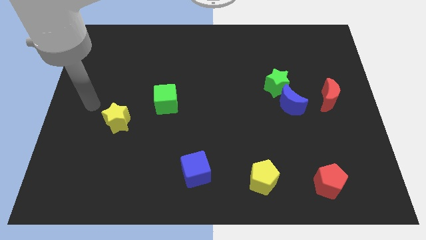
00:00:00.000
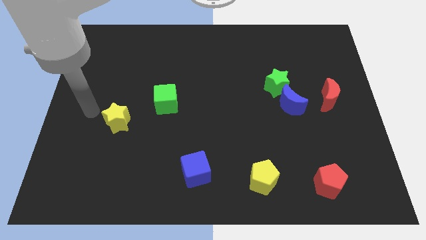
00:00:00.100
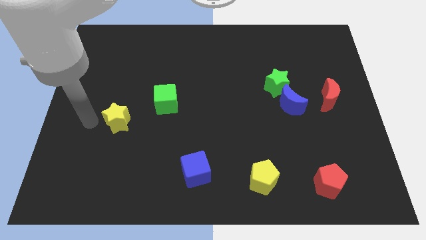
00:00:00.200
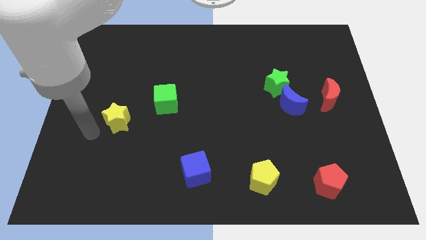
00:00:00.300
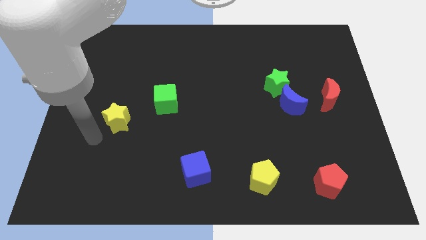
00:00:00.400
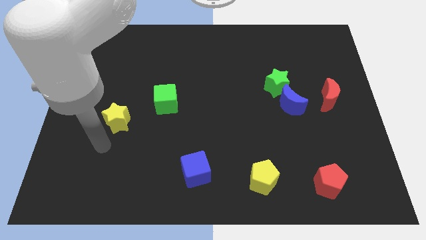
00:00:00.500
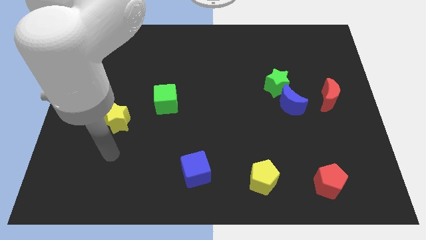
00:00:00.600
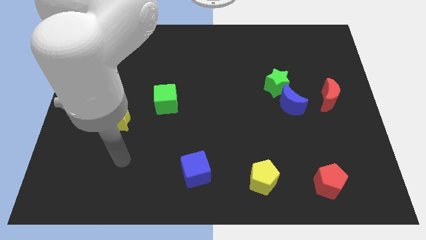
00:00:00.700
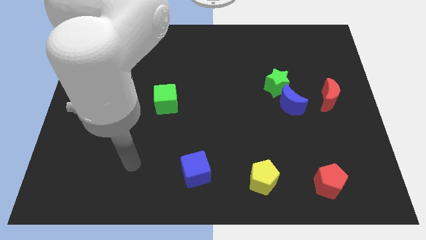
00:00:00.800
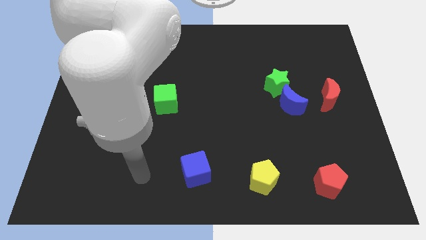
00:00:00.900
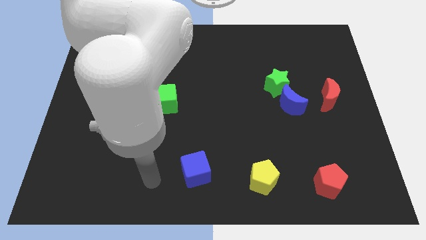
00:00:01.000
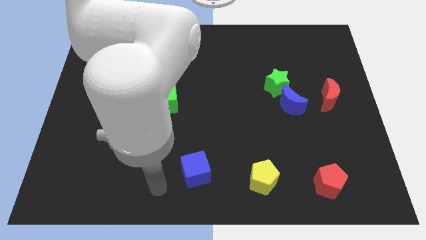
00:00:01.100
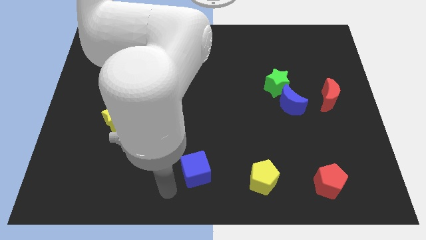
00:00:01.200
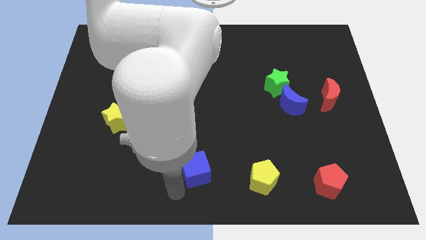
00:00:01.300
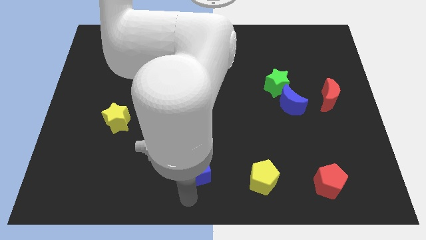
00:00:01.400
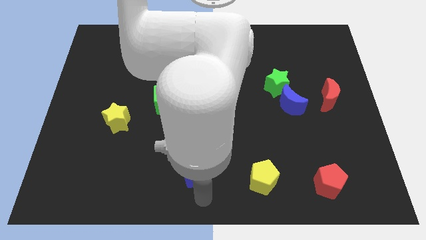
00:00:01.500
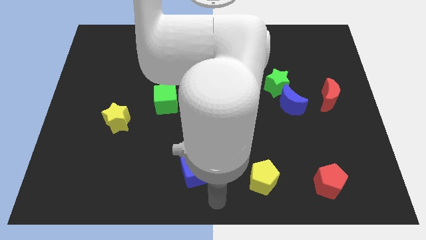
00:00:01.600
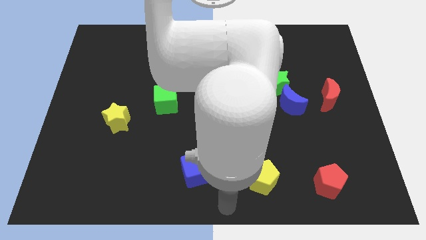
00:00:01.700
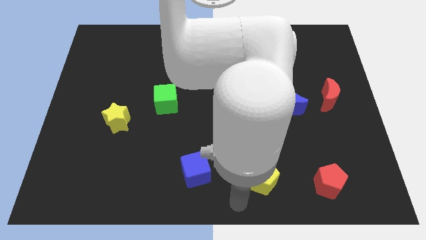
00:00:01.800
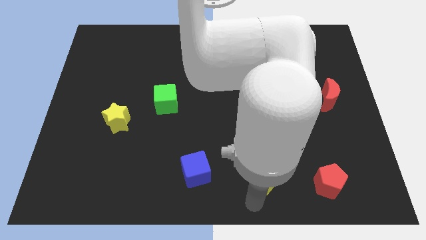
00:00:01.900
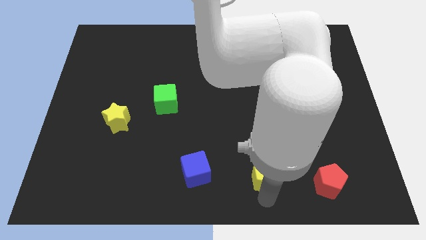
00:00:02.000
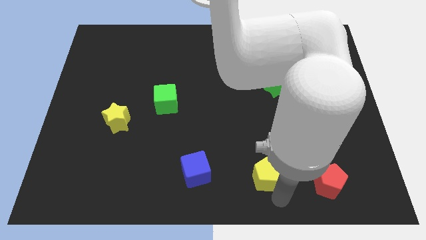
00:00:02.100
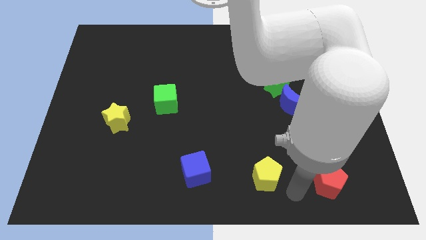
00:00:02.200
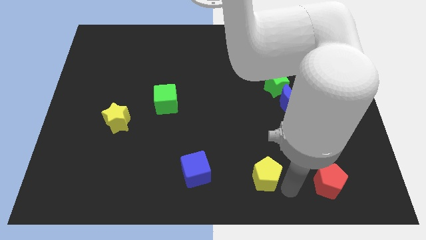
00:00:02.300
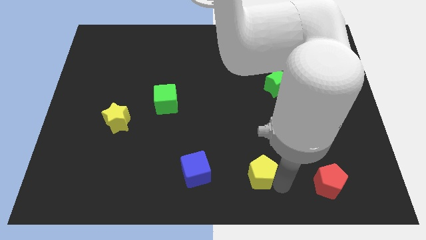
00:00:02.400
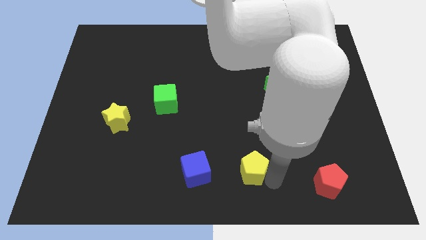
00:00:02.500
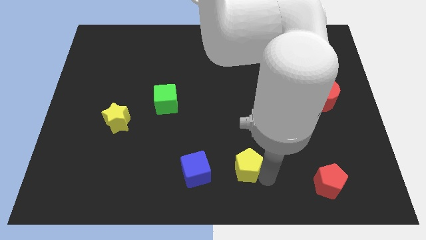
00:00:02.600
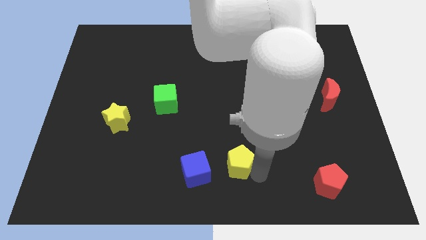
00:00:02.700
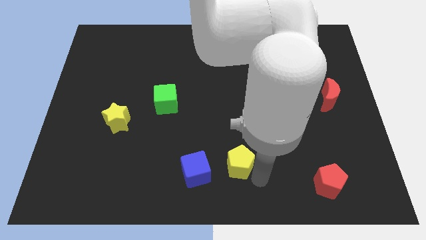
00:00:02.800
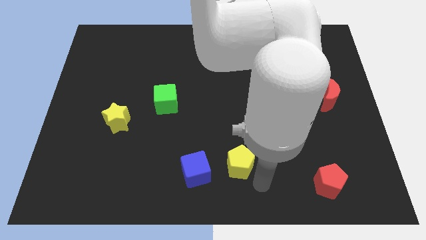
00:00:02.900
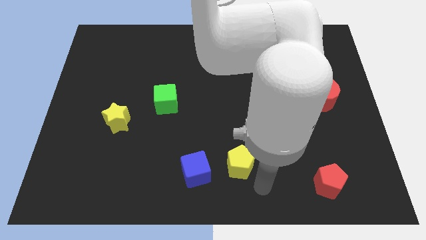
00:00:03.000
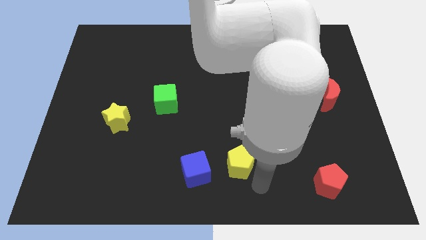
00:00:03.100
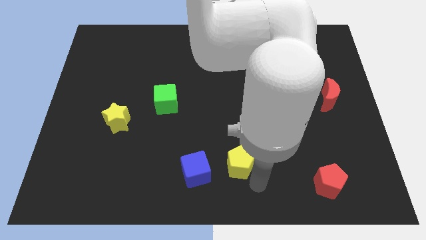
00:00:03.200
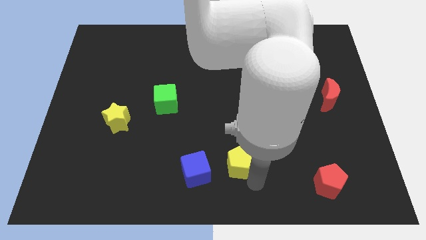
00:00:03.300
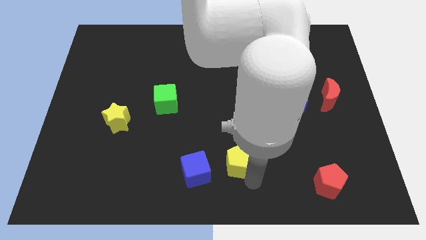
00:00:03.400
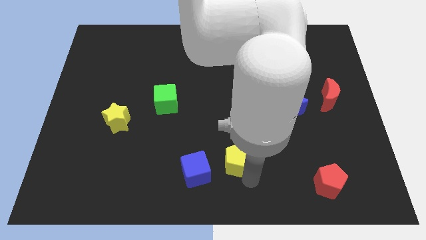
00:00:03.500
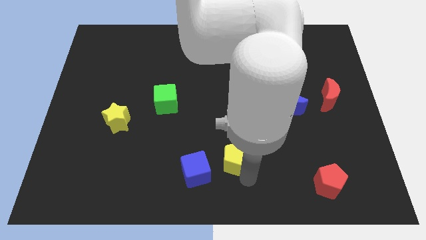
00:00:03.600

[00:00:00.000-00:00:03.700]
slightly slide the yellow pentagon upwards and to the left

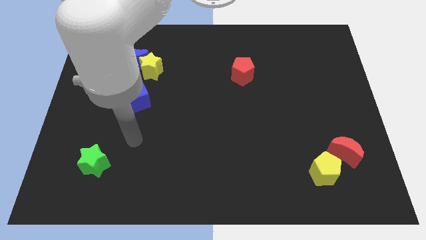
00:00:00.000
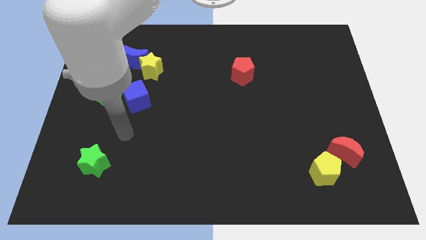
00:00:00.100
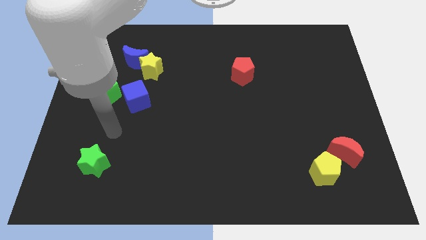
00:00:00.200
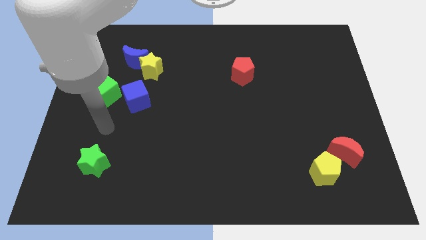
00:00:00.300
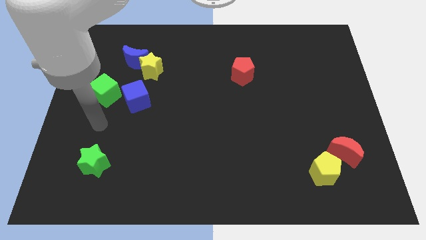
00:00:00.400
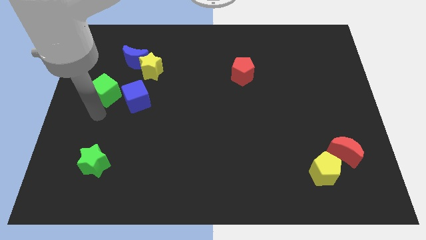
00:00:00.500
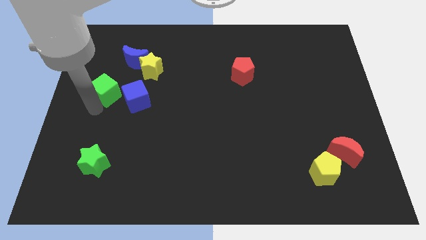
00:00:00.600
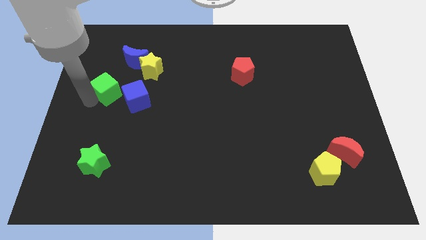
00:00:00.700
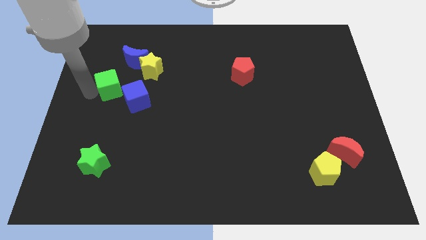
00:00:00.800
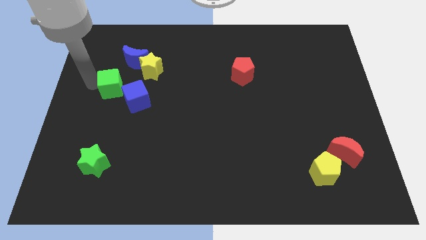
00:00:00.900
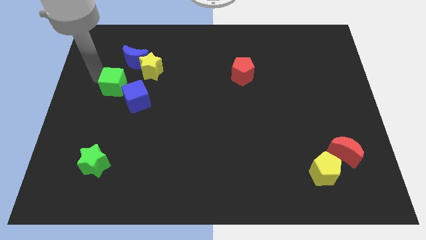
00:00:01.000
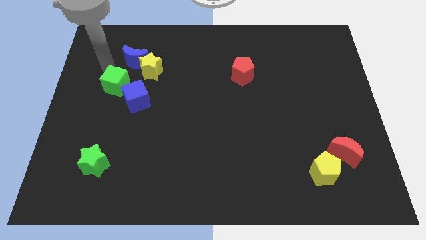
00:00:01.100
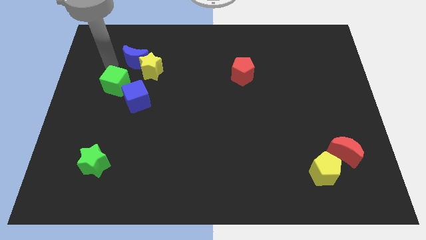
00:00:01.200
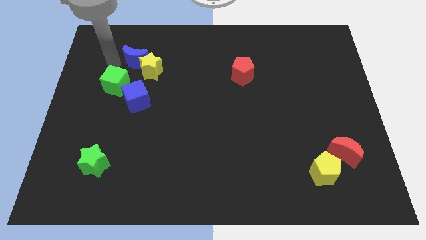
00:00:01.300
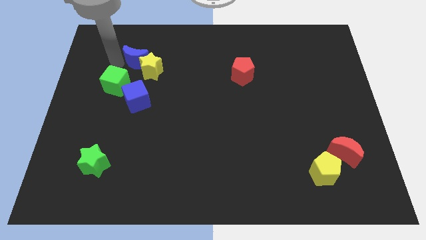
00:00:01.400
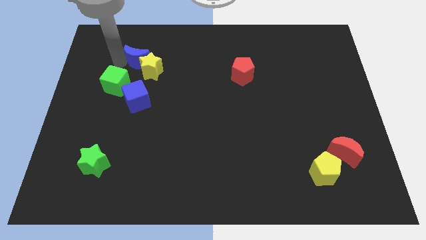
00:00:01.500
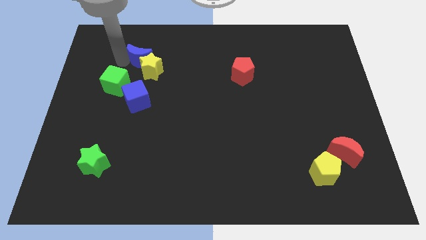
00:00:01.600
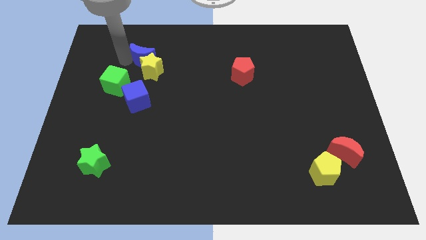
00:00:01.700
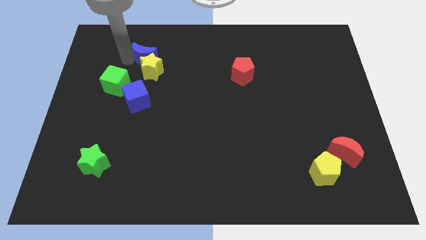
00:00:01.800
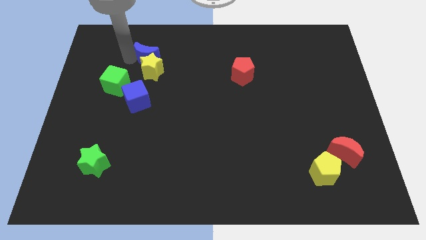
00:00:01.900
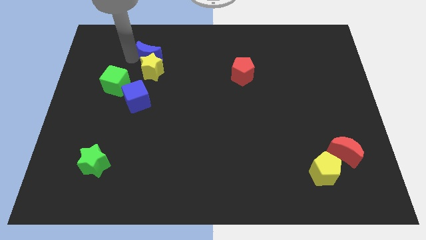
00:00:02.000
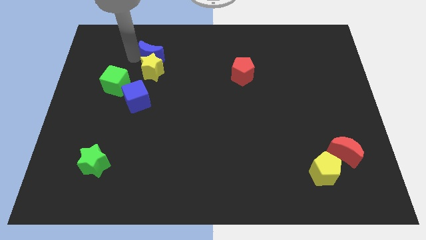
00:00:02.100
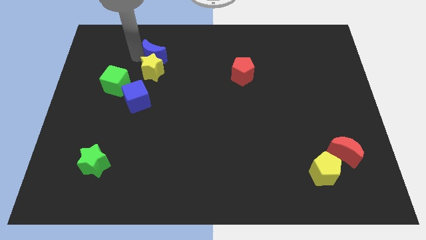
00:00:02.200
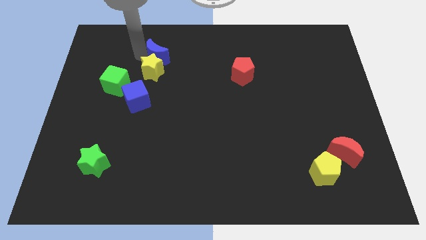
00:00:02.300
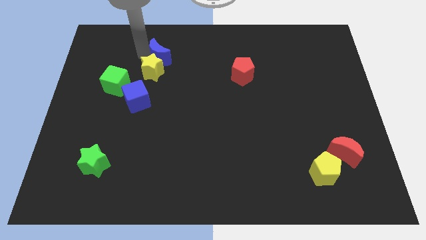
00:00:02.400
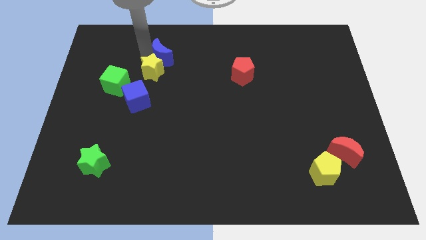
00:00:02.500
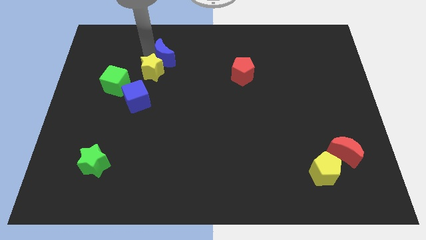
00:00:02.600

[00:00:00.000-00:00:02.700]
slightly slide the blue moon to the right

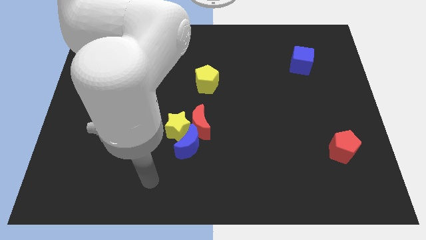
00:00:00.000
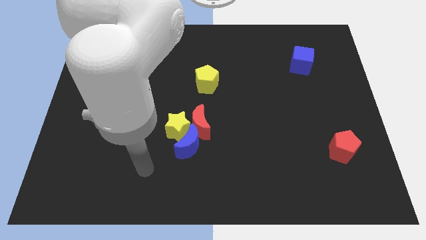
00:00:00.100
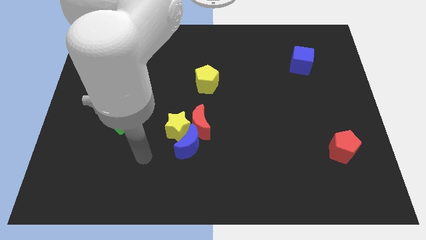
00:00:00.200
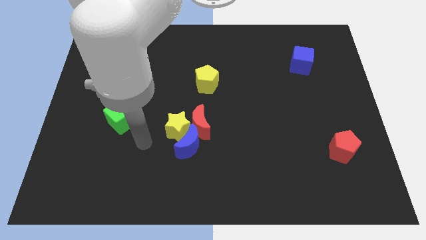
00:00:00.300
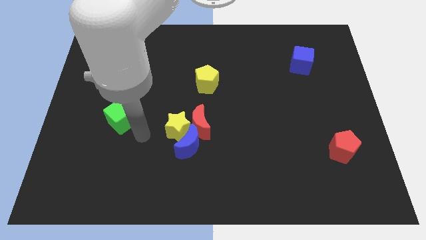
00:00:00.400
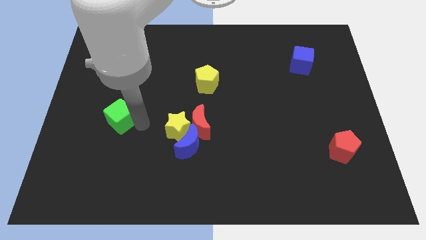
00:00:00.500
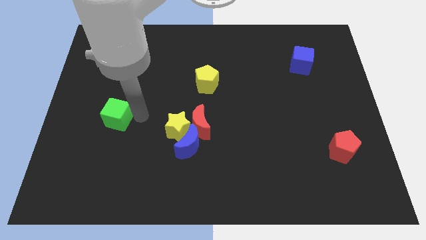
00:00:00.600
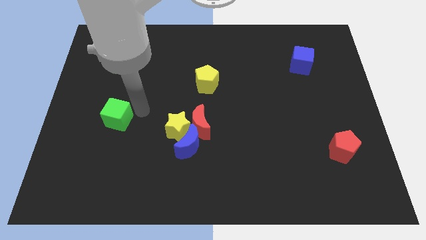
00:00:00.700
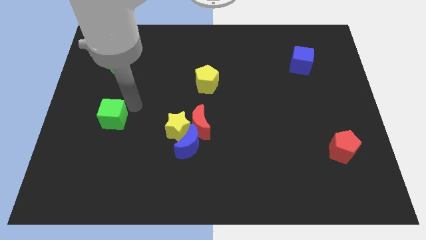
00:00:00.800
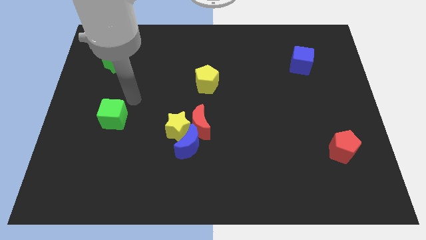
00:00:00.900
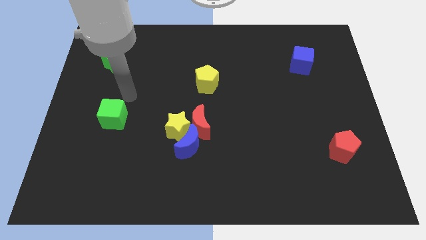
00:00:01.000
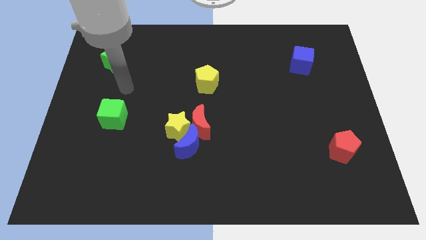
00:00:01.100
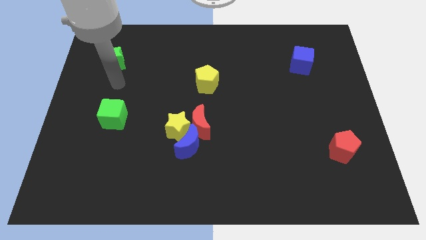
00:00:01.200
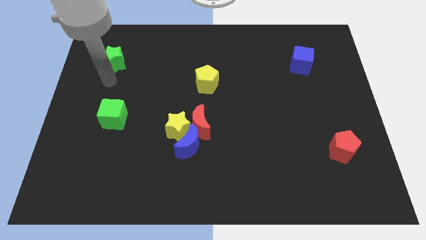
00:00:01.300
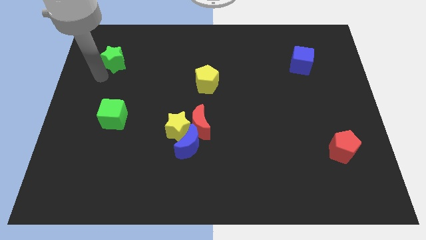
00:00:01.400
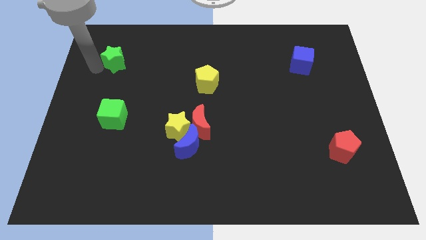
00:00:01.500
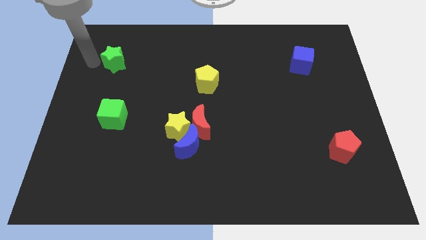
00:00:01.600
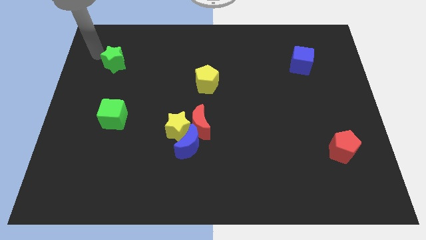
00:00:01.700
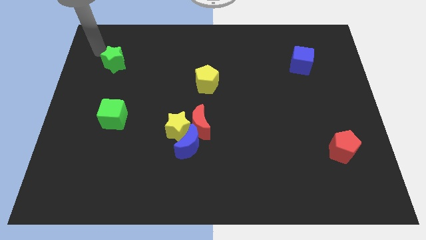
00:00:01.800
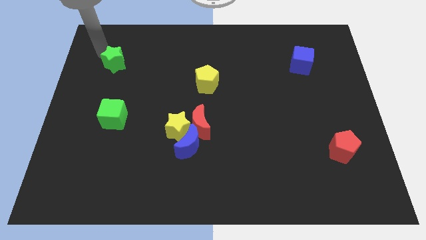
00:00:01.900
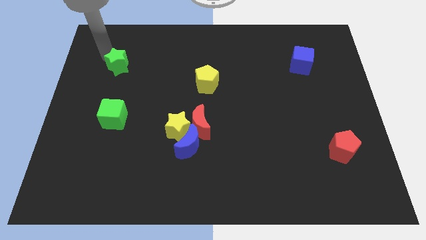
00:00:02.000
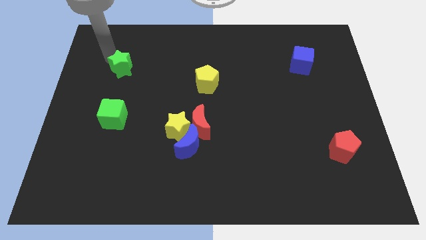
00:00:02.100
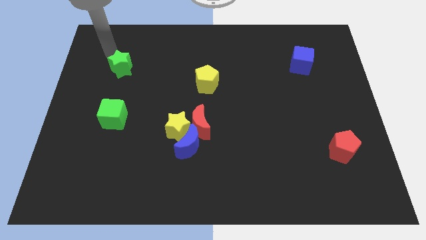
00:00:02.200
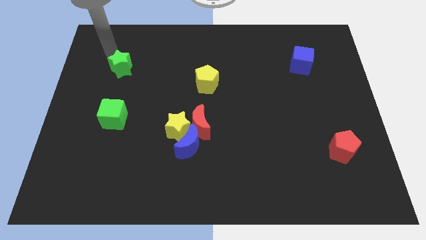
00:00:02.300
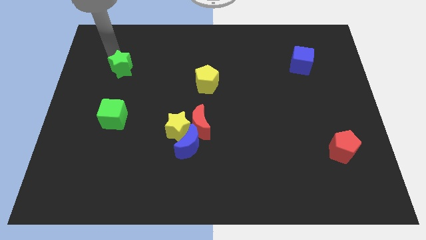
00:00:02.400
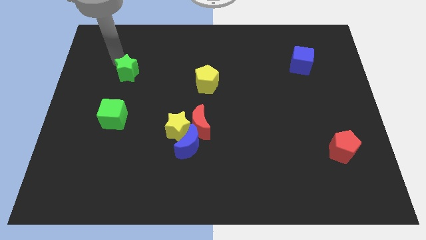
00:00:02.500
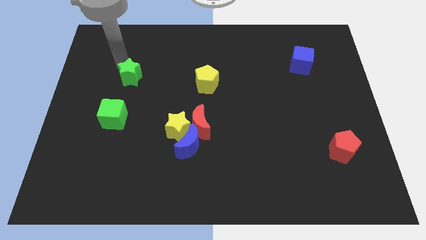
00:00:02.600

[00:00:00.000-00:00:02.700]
slightly move the green star diagonally downwards and right
